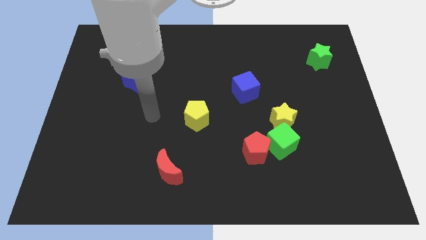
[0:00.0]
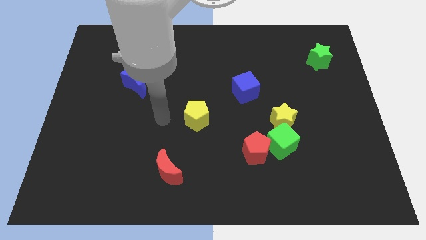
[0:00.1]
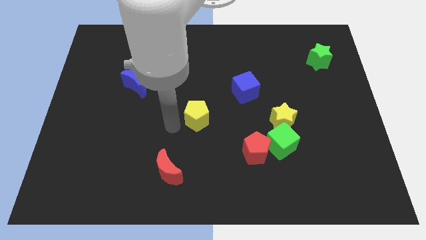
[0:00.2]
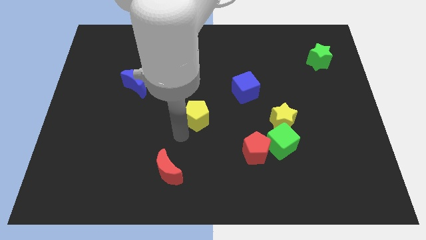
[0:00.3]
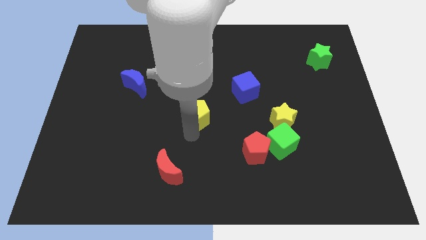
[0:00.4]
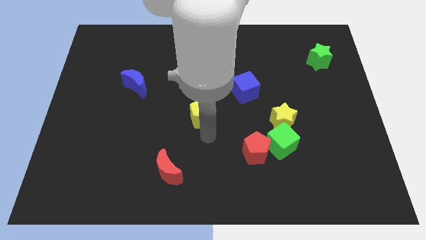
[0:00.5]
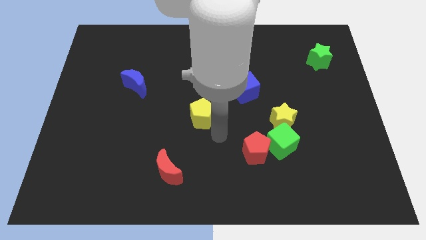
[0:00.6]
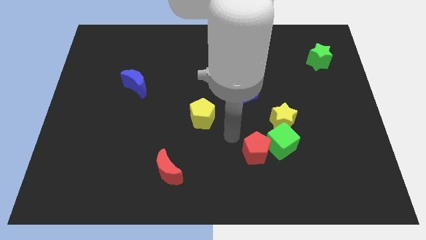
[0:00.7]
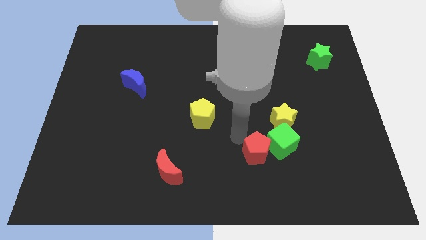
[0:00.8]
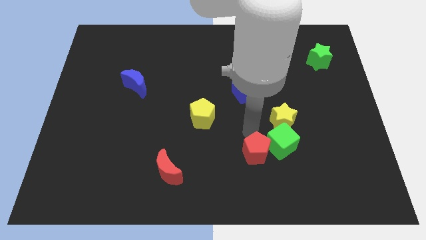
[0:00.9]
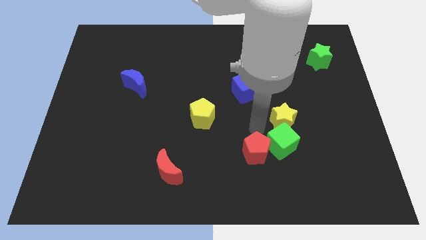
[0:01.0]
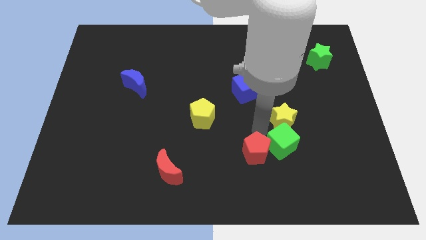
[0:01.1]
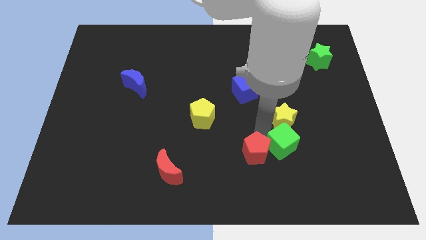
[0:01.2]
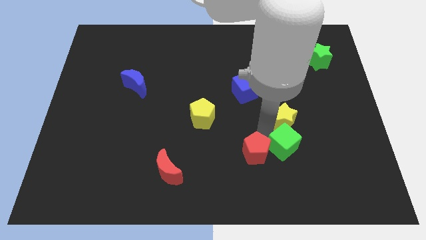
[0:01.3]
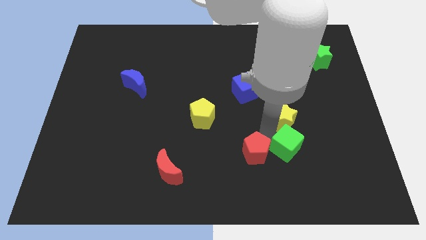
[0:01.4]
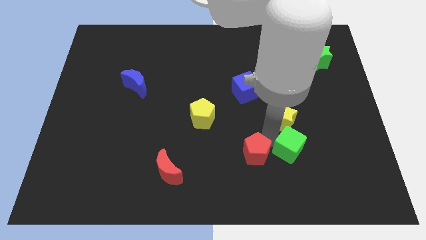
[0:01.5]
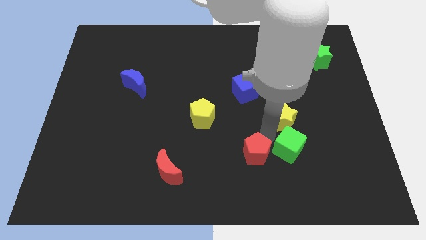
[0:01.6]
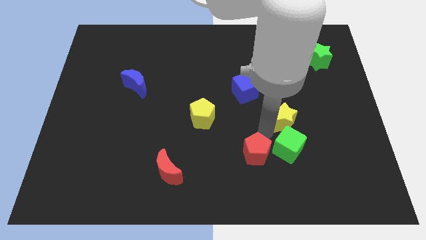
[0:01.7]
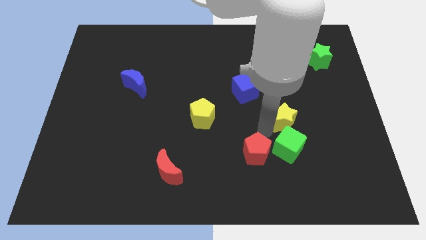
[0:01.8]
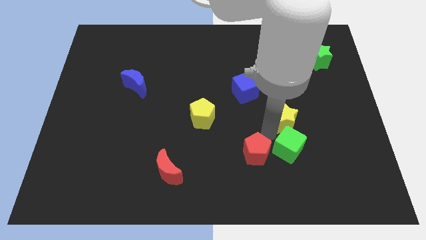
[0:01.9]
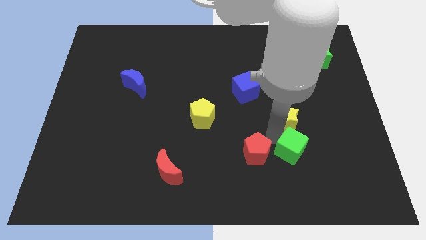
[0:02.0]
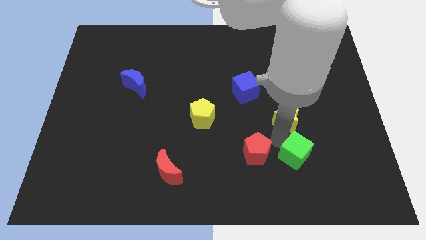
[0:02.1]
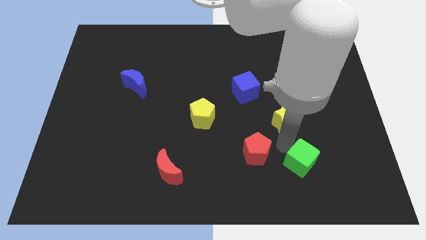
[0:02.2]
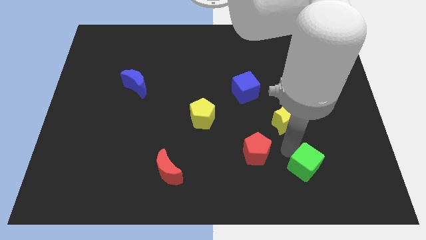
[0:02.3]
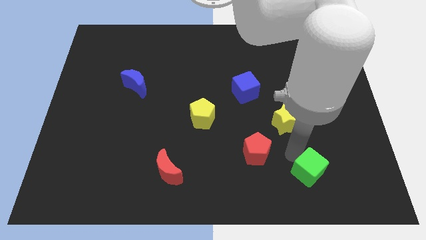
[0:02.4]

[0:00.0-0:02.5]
move the green cube away from the yellow star and red pentagon

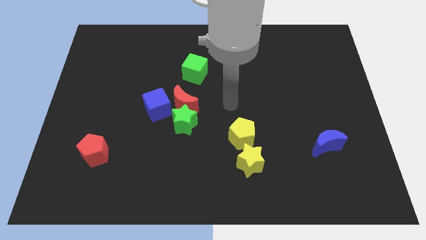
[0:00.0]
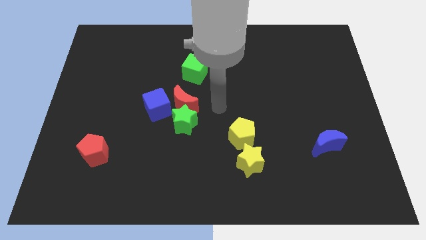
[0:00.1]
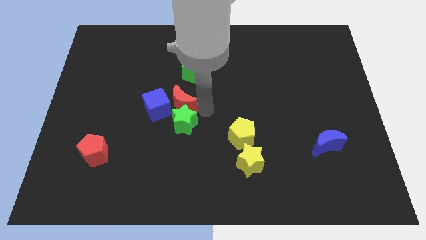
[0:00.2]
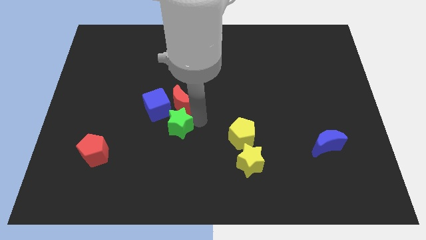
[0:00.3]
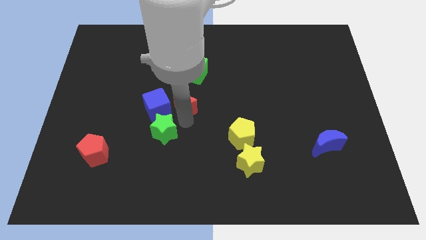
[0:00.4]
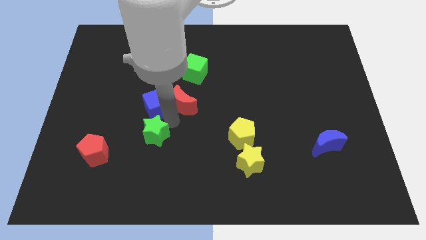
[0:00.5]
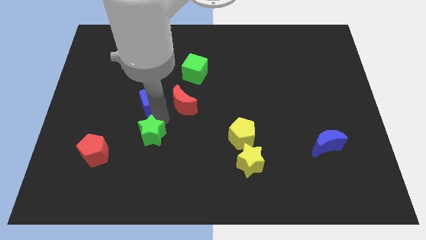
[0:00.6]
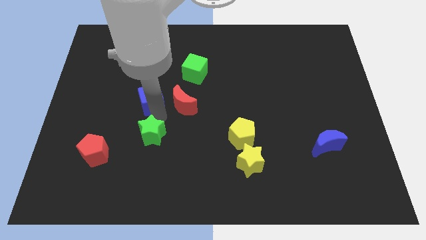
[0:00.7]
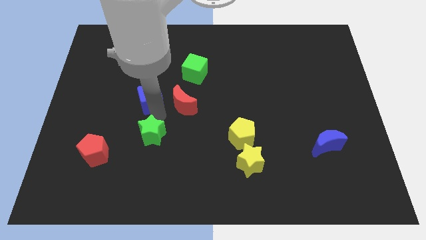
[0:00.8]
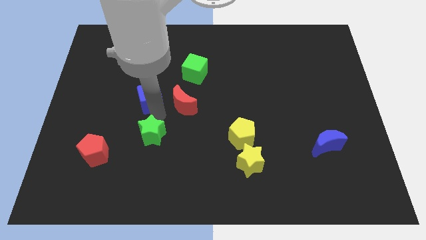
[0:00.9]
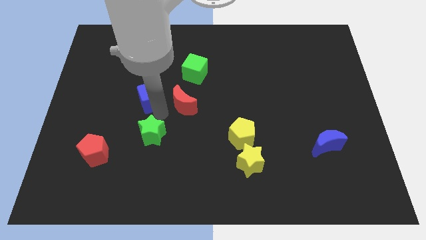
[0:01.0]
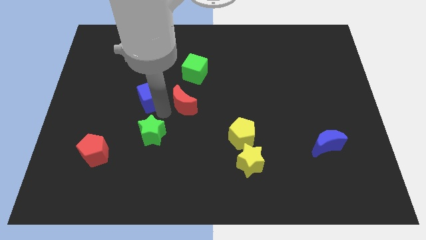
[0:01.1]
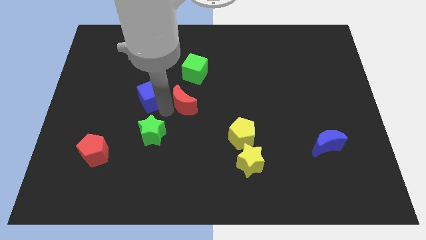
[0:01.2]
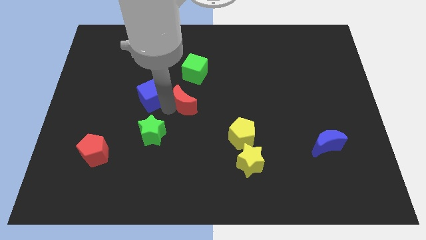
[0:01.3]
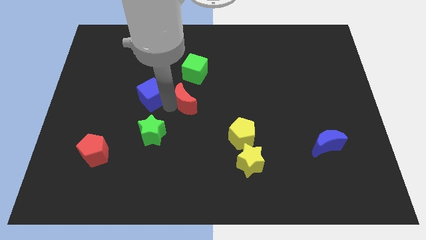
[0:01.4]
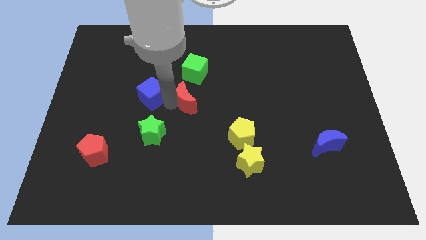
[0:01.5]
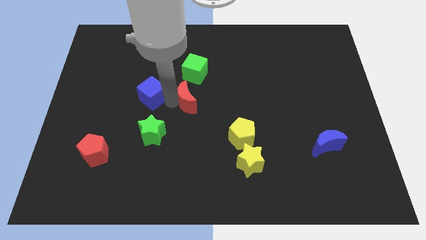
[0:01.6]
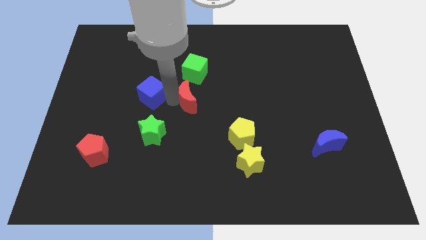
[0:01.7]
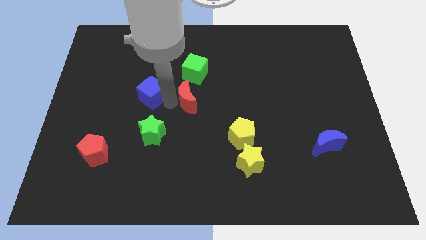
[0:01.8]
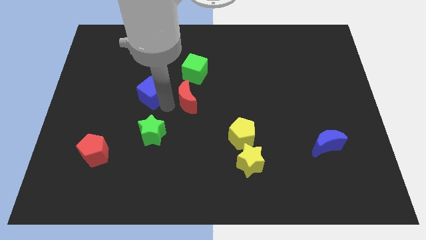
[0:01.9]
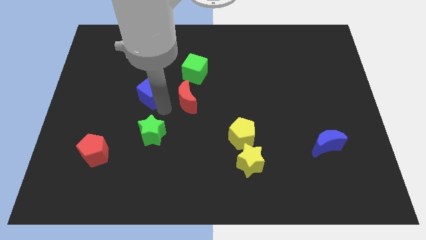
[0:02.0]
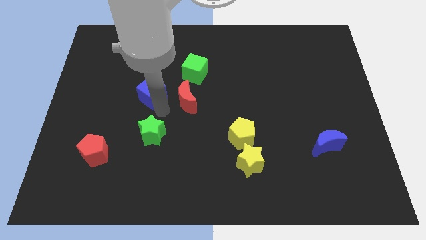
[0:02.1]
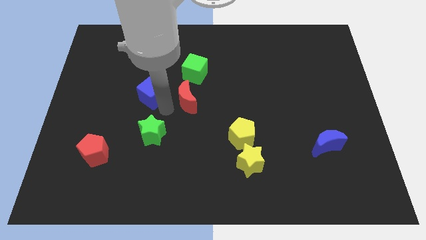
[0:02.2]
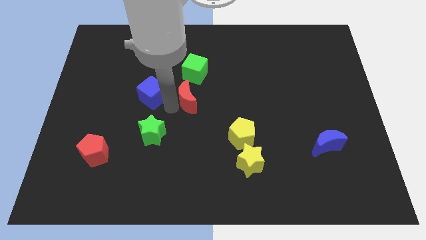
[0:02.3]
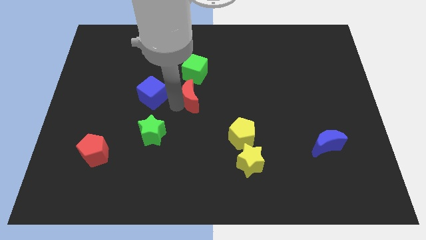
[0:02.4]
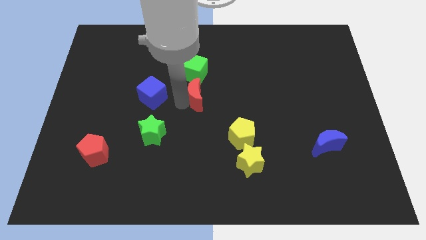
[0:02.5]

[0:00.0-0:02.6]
separate the red moon from the green star and blue cube

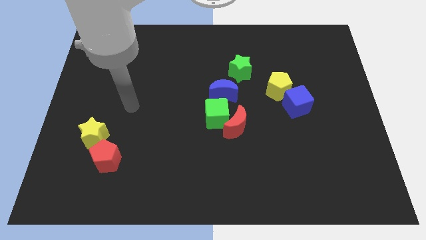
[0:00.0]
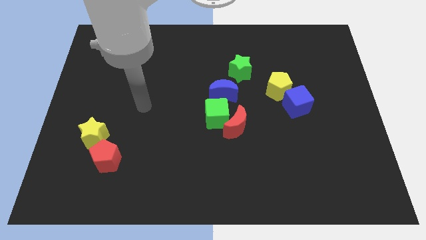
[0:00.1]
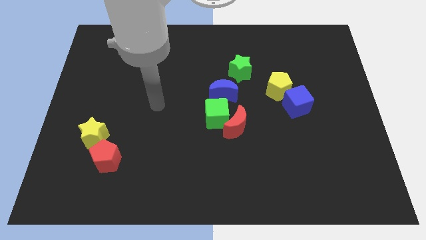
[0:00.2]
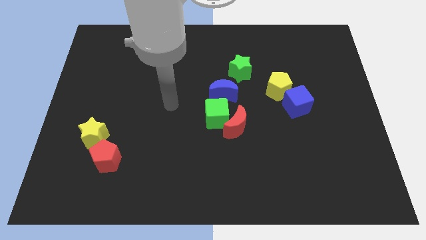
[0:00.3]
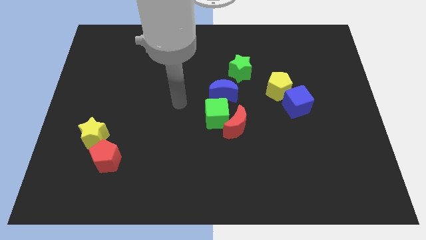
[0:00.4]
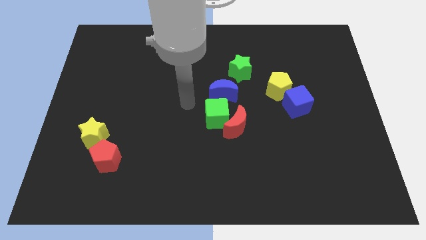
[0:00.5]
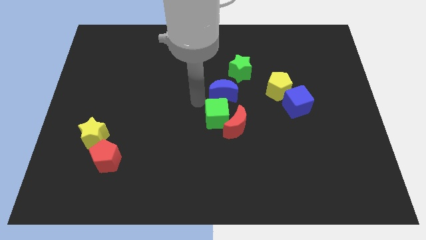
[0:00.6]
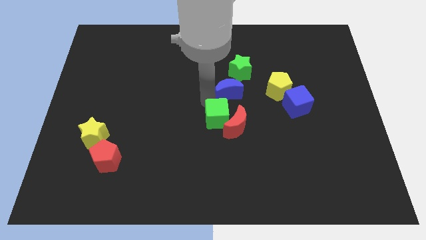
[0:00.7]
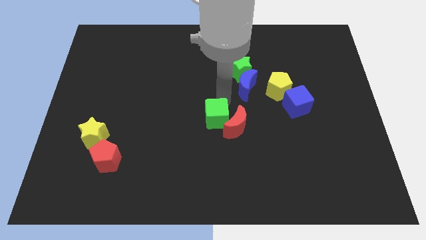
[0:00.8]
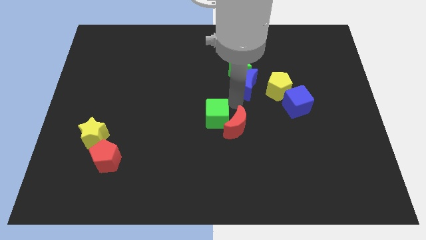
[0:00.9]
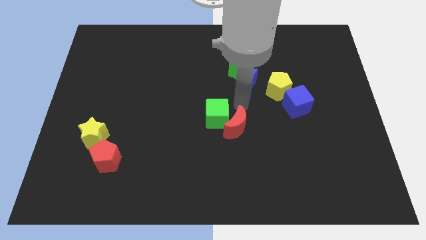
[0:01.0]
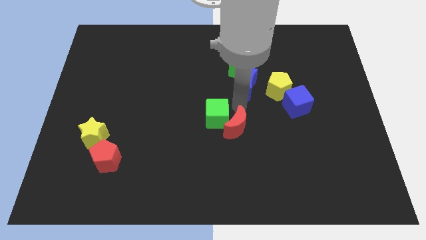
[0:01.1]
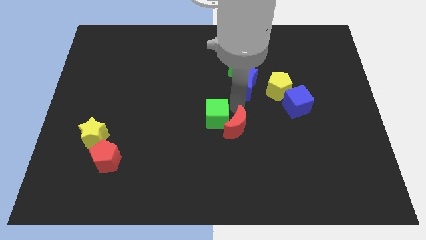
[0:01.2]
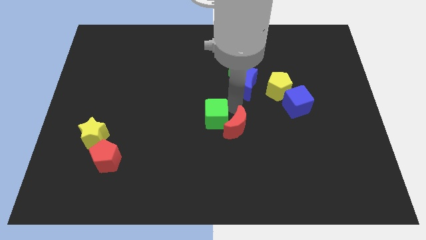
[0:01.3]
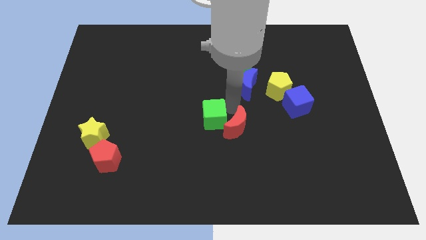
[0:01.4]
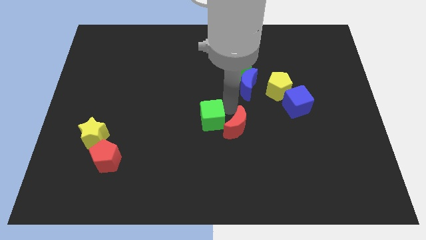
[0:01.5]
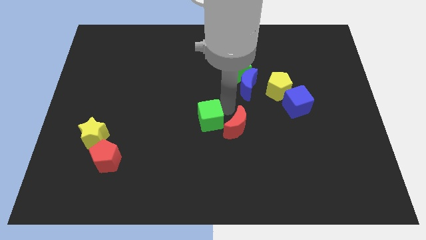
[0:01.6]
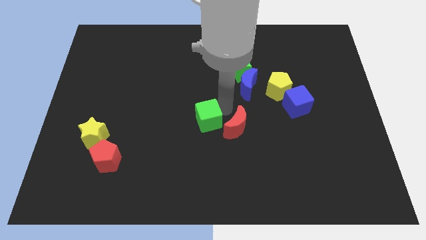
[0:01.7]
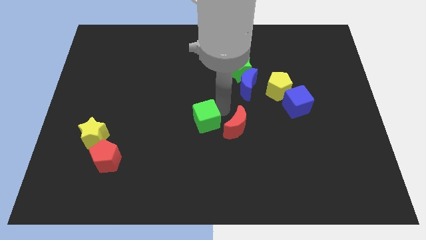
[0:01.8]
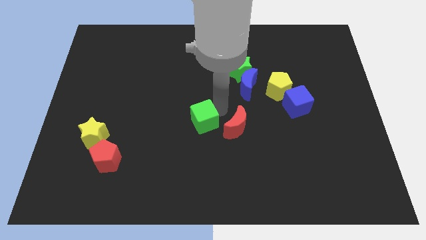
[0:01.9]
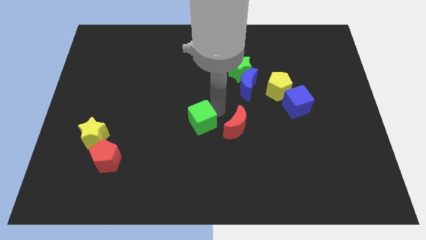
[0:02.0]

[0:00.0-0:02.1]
move the green cube away from the red moon and blue moon

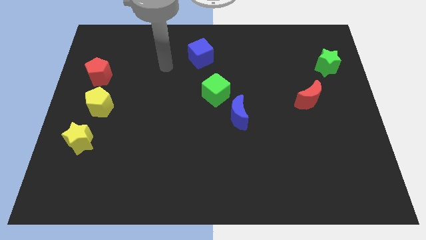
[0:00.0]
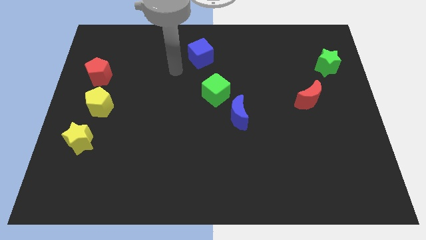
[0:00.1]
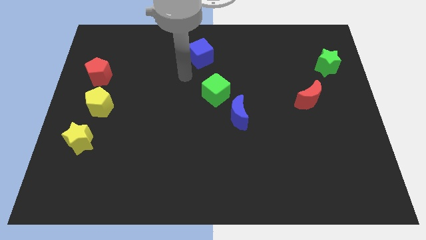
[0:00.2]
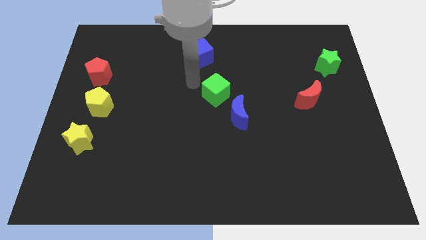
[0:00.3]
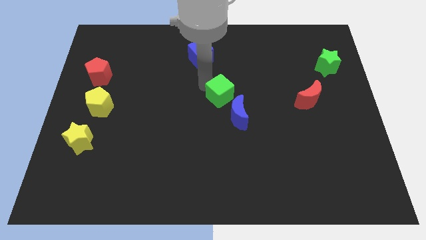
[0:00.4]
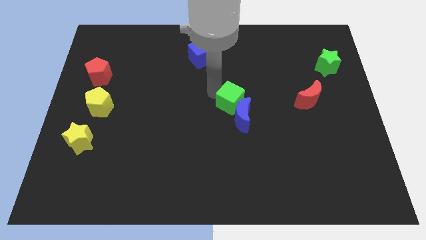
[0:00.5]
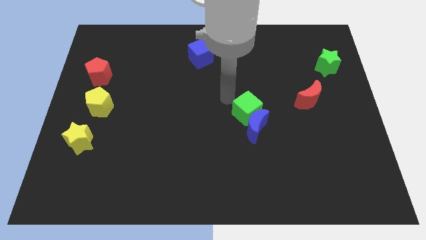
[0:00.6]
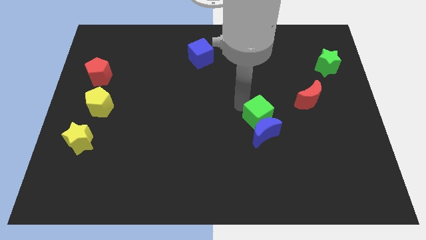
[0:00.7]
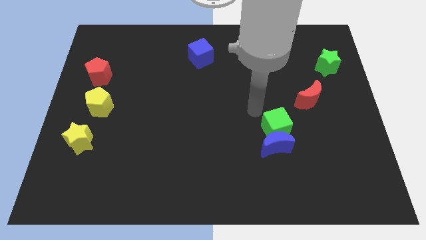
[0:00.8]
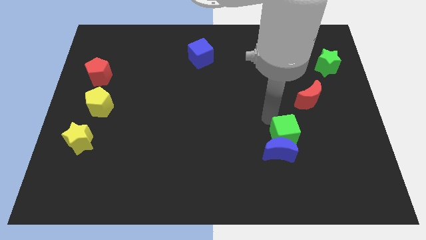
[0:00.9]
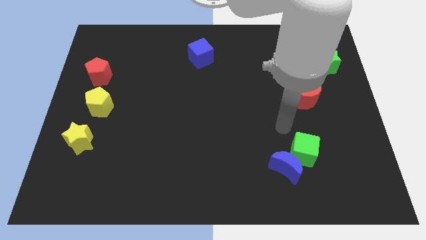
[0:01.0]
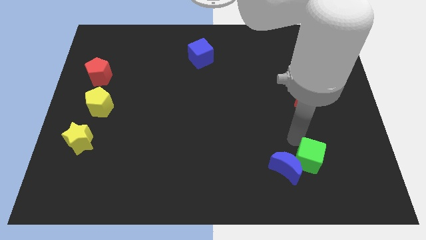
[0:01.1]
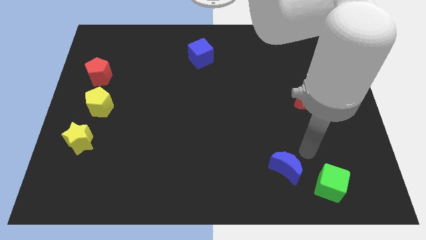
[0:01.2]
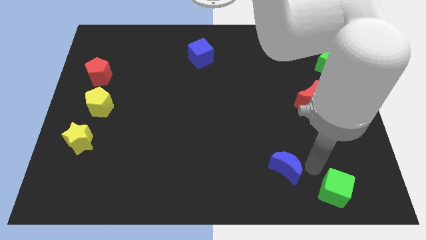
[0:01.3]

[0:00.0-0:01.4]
separate the blue moon from the green cube

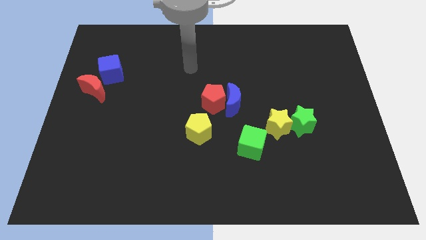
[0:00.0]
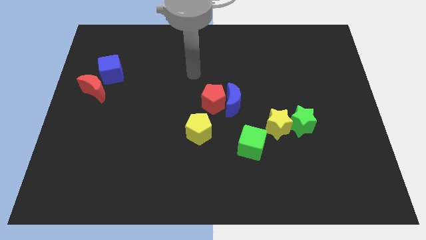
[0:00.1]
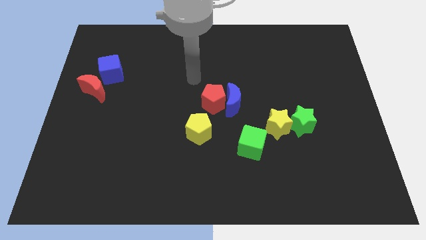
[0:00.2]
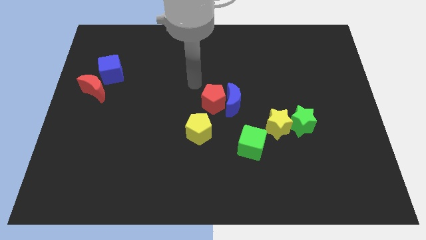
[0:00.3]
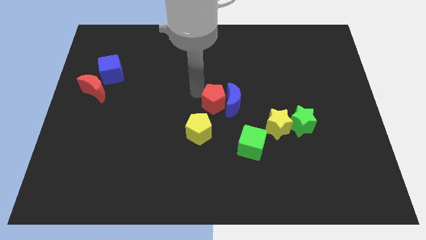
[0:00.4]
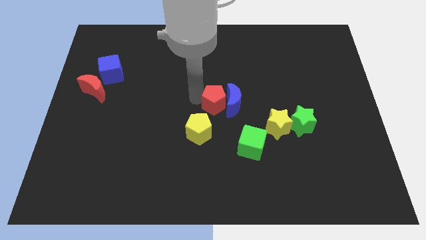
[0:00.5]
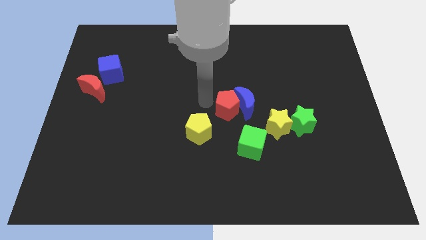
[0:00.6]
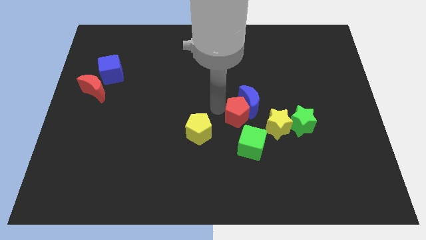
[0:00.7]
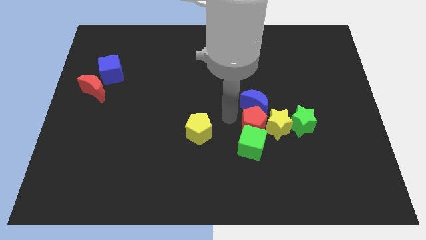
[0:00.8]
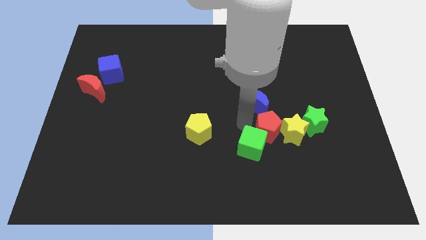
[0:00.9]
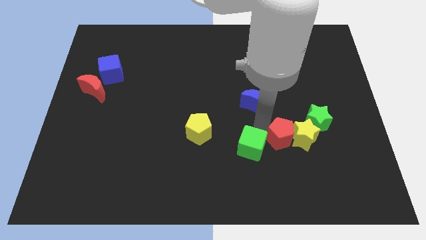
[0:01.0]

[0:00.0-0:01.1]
move the blue moon away from the red pentagon
